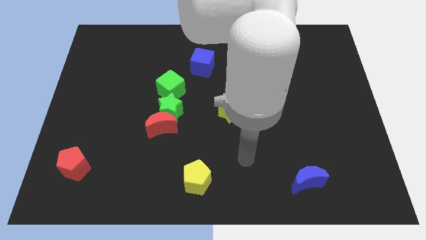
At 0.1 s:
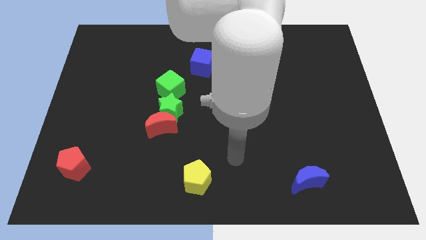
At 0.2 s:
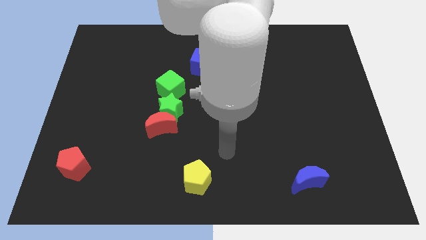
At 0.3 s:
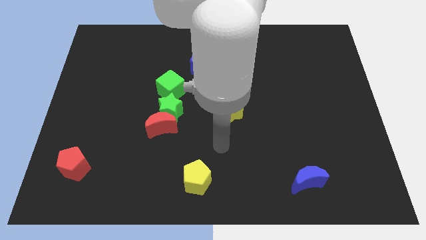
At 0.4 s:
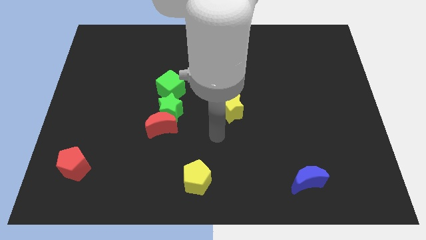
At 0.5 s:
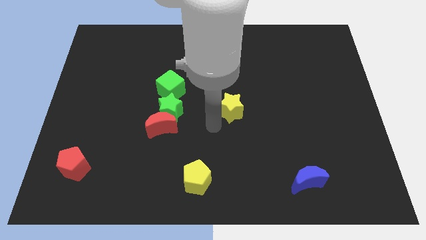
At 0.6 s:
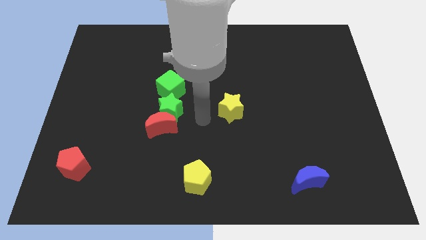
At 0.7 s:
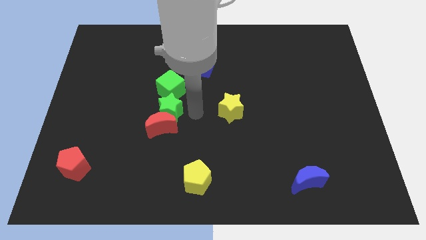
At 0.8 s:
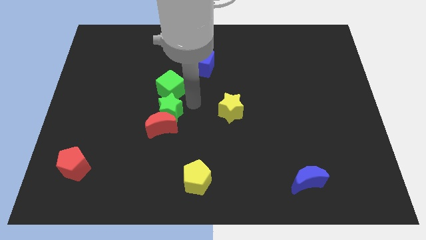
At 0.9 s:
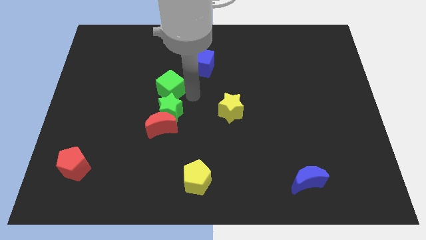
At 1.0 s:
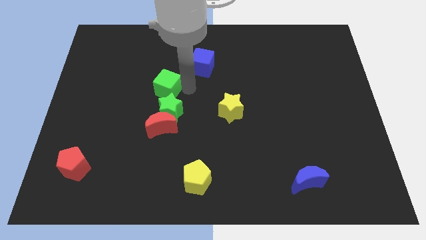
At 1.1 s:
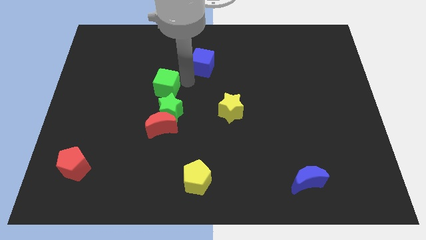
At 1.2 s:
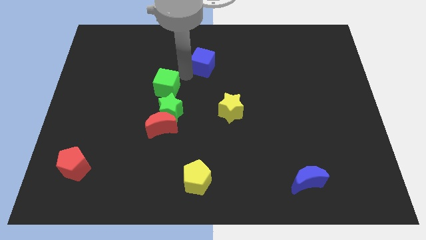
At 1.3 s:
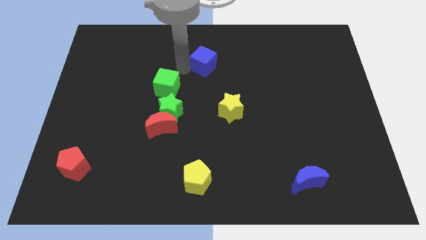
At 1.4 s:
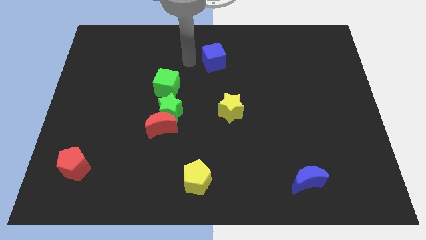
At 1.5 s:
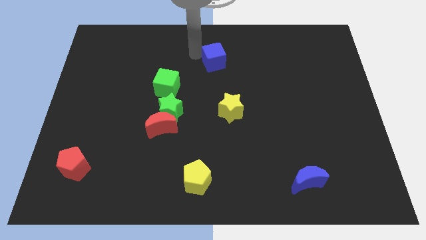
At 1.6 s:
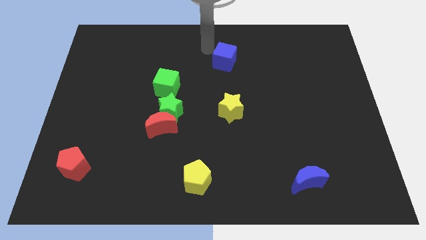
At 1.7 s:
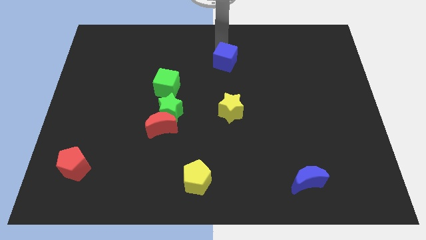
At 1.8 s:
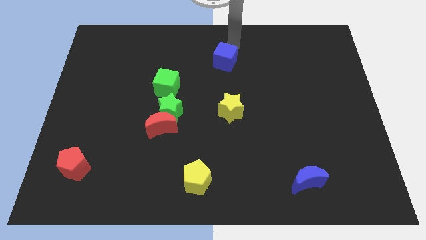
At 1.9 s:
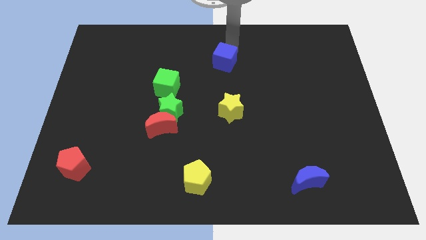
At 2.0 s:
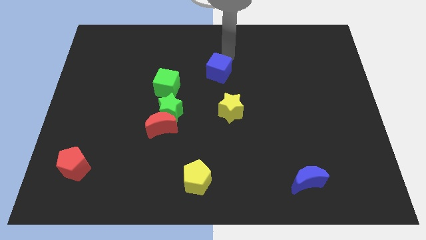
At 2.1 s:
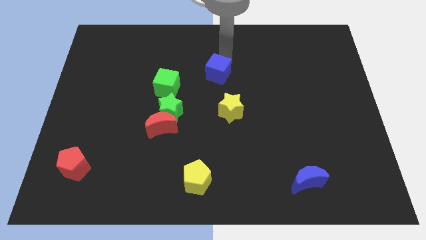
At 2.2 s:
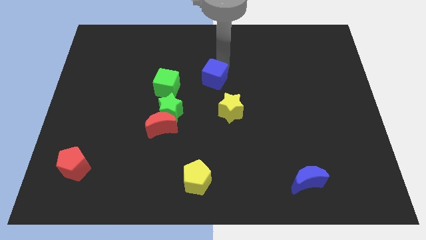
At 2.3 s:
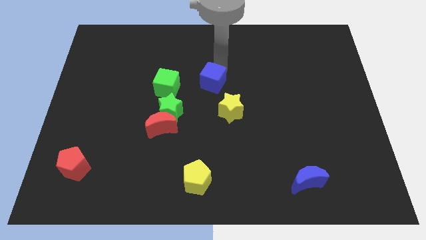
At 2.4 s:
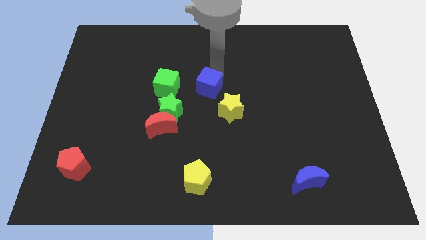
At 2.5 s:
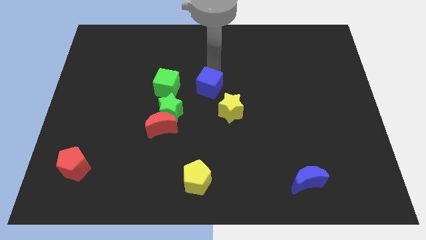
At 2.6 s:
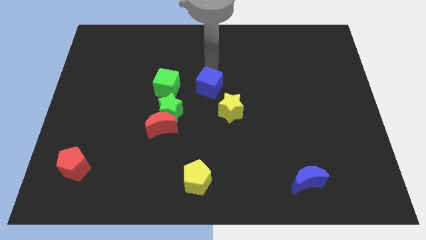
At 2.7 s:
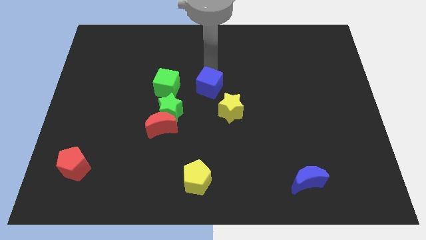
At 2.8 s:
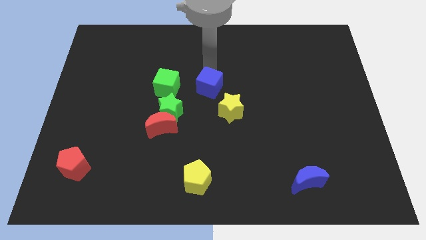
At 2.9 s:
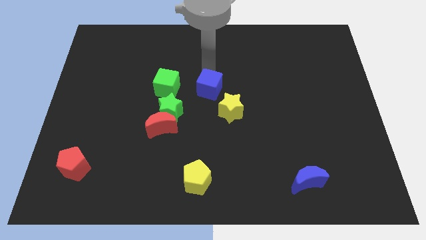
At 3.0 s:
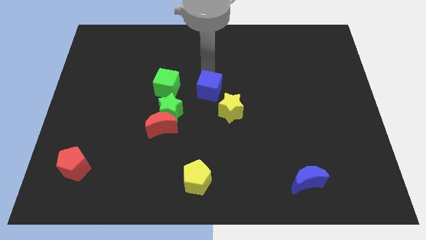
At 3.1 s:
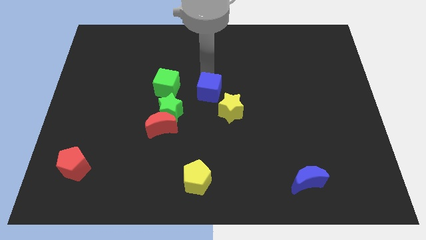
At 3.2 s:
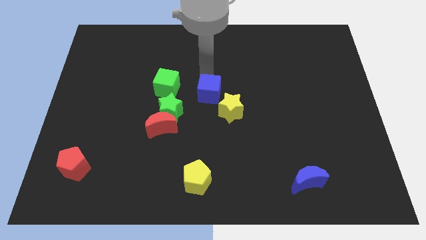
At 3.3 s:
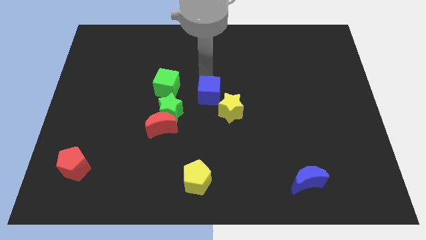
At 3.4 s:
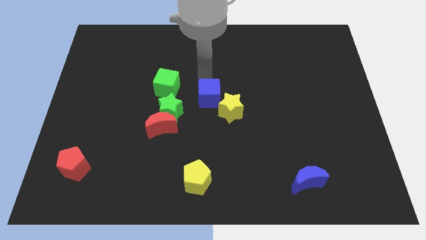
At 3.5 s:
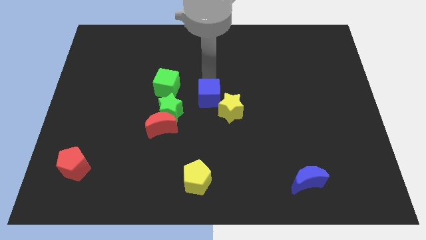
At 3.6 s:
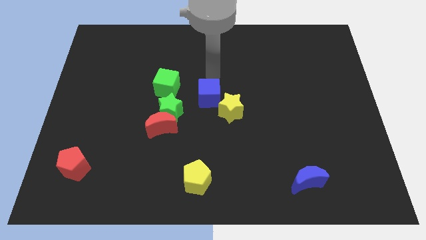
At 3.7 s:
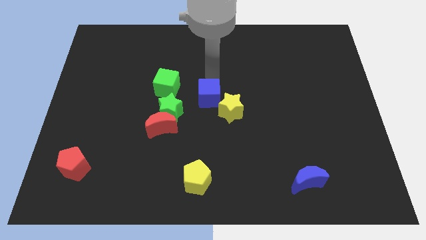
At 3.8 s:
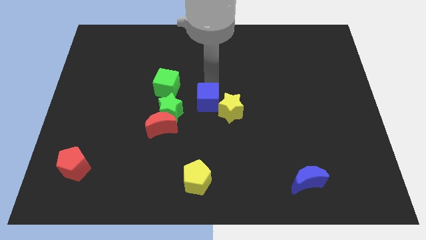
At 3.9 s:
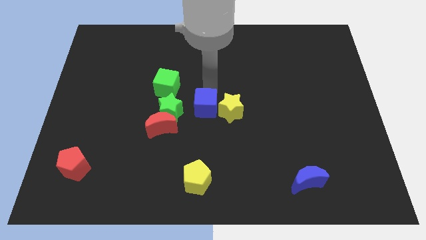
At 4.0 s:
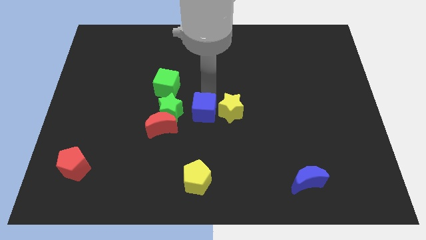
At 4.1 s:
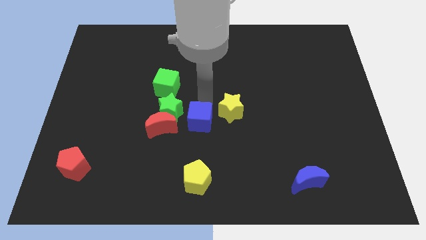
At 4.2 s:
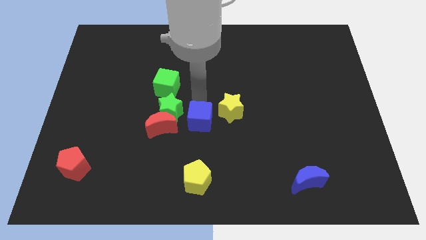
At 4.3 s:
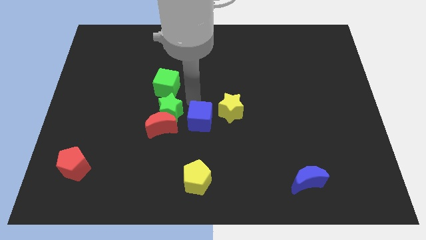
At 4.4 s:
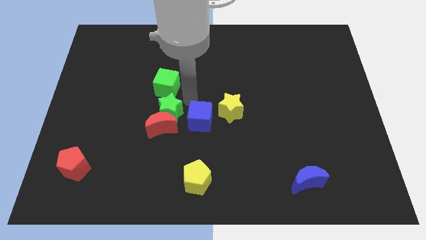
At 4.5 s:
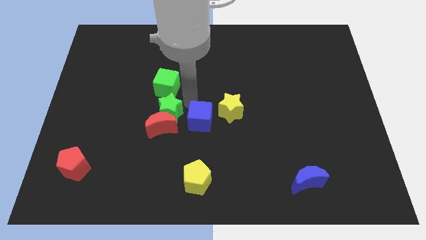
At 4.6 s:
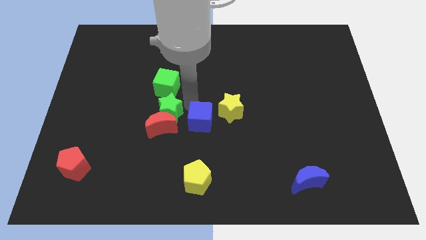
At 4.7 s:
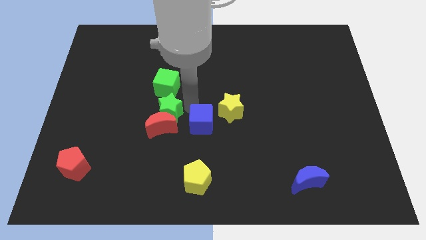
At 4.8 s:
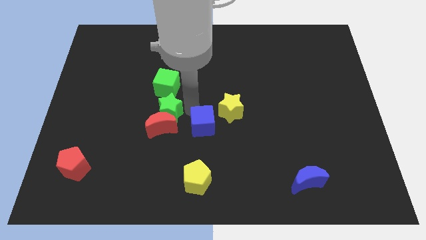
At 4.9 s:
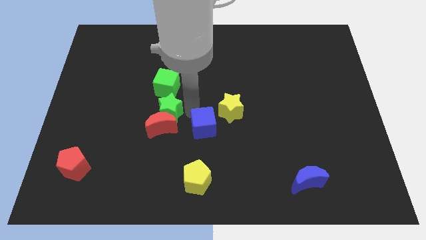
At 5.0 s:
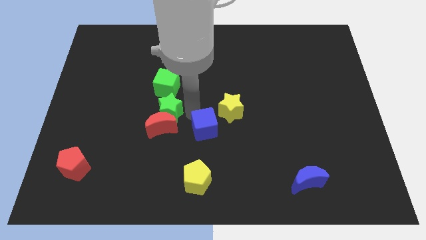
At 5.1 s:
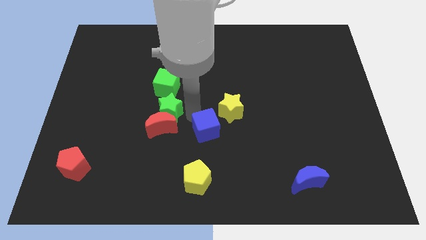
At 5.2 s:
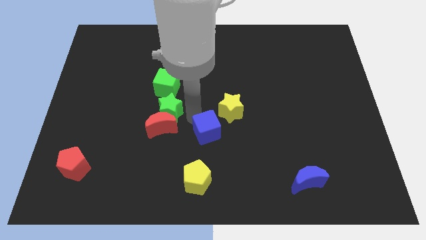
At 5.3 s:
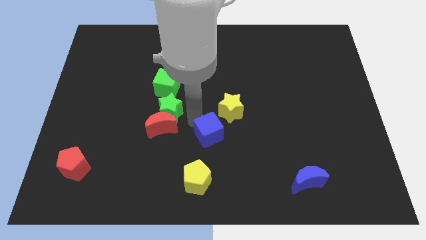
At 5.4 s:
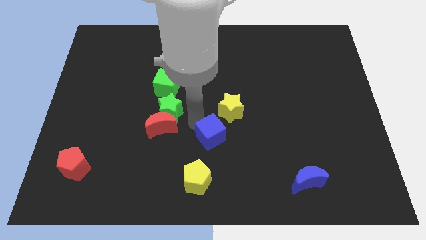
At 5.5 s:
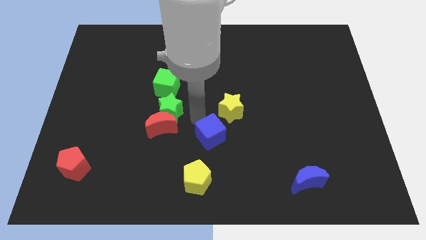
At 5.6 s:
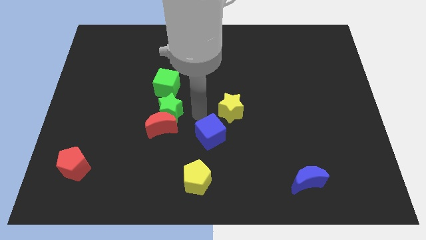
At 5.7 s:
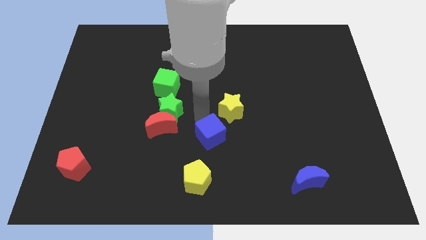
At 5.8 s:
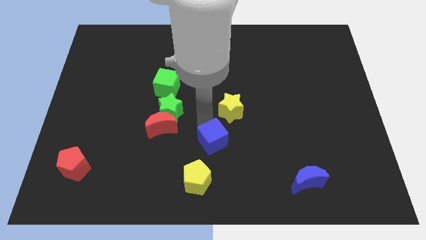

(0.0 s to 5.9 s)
push the blue cube diagonally up and to the right of the yellow pentagon

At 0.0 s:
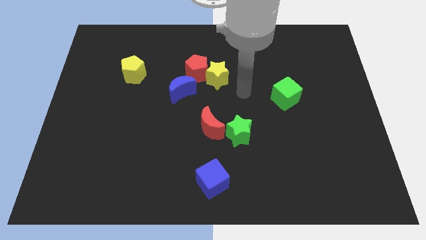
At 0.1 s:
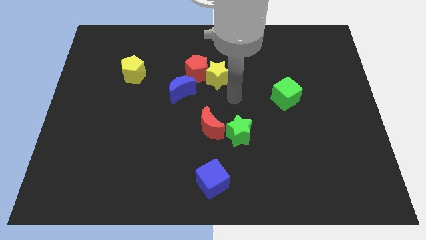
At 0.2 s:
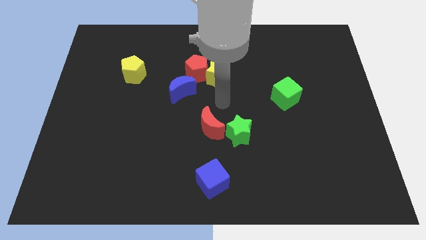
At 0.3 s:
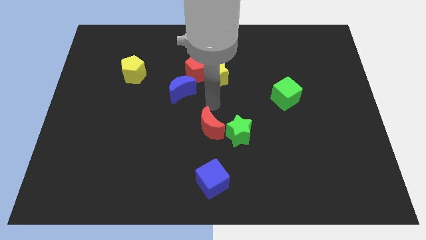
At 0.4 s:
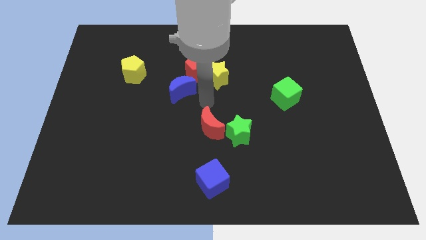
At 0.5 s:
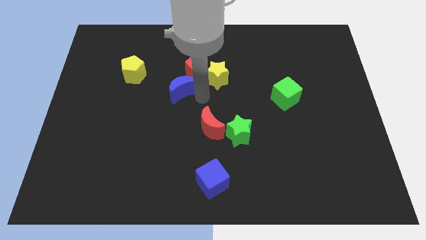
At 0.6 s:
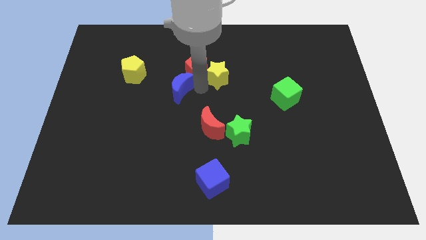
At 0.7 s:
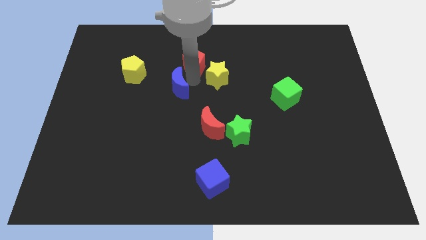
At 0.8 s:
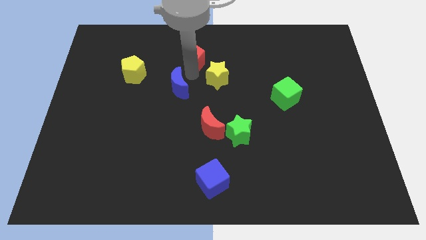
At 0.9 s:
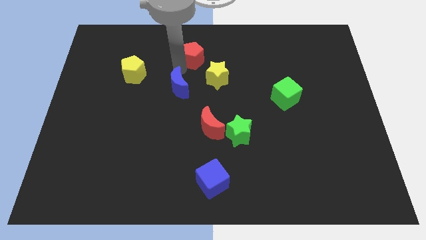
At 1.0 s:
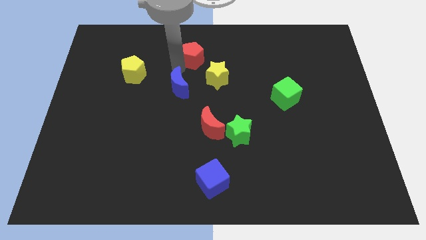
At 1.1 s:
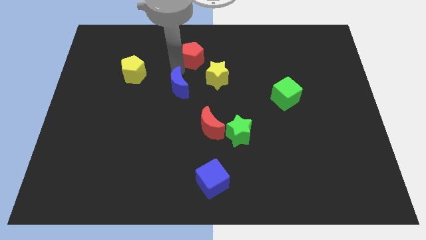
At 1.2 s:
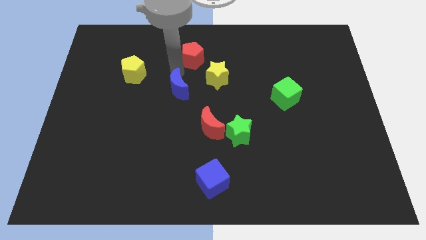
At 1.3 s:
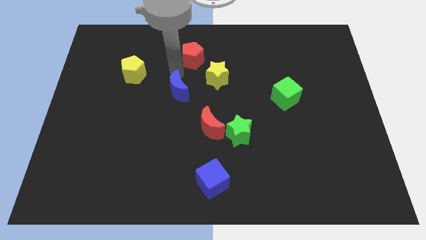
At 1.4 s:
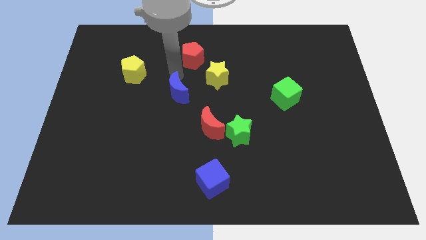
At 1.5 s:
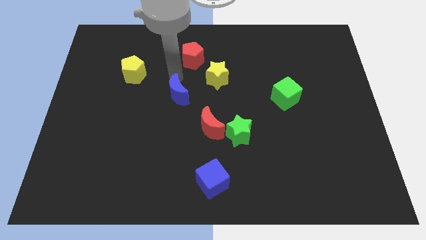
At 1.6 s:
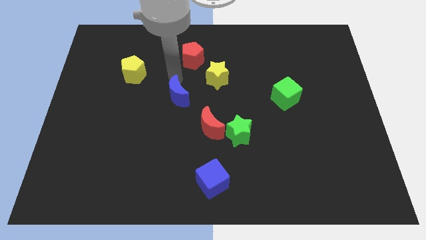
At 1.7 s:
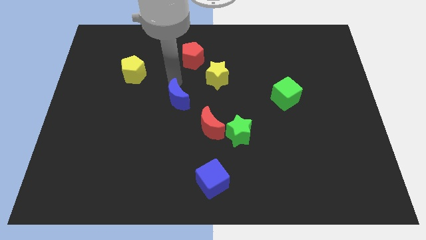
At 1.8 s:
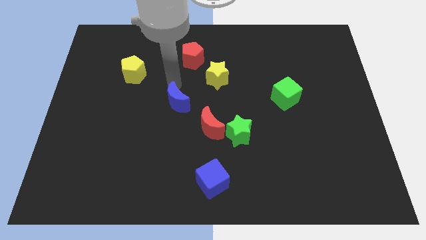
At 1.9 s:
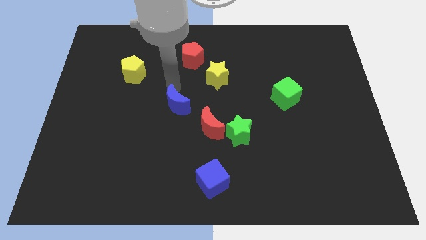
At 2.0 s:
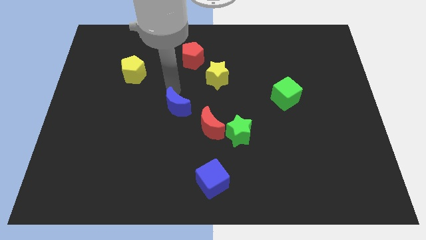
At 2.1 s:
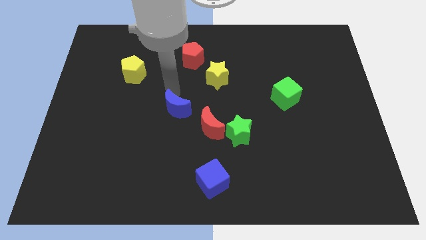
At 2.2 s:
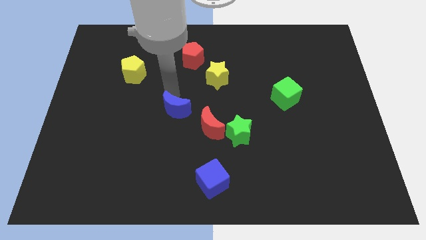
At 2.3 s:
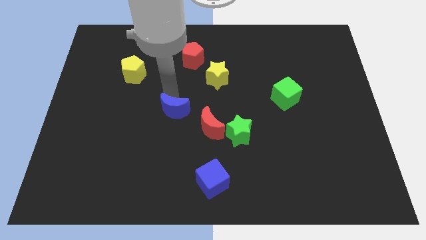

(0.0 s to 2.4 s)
move the blue moon to the left side of the red moon
